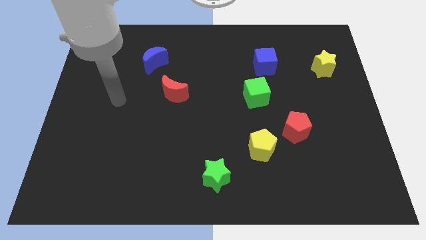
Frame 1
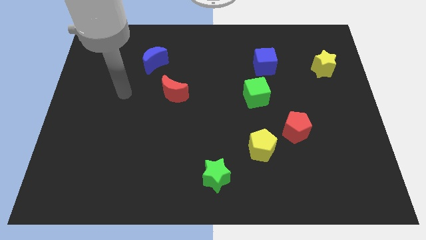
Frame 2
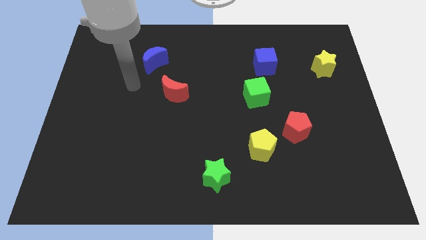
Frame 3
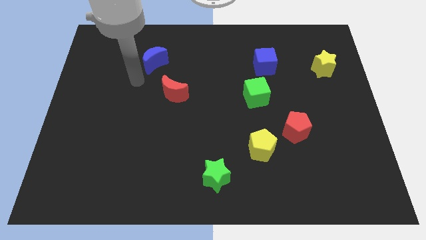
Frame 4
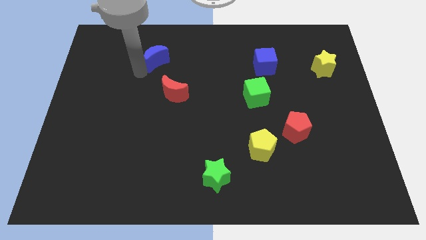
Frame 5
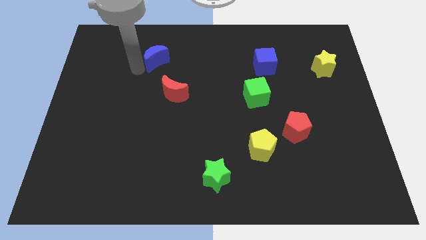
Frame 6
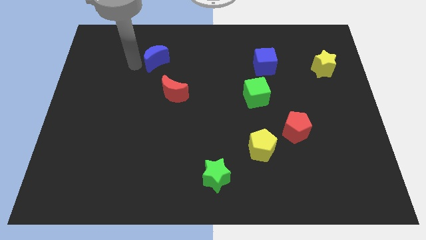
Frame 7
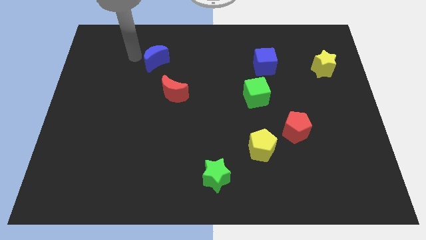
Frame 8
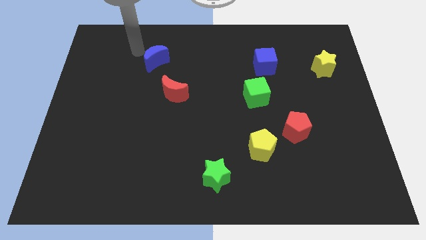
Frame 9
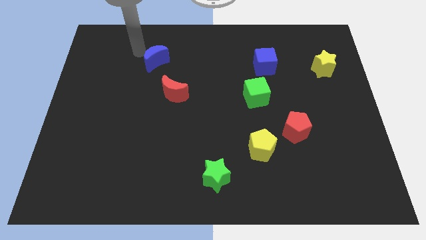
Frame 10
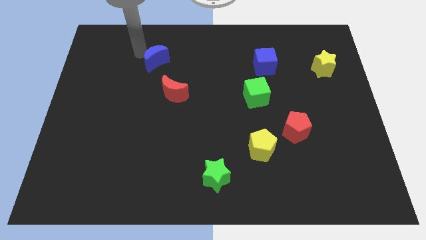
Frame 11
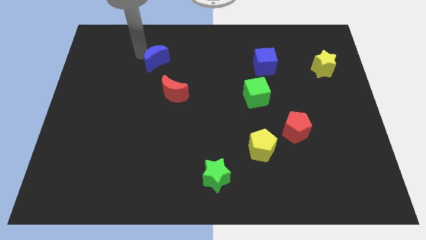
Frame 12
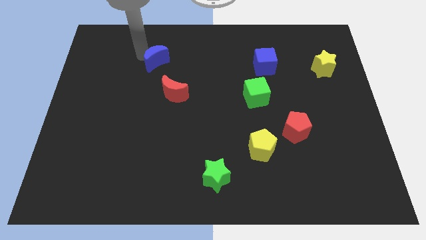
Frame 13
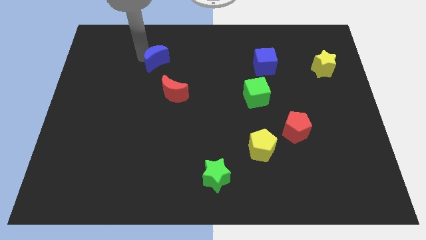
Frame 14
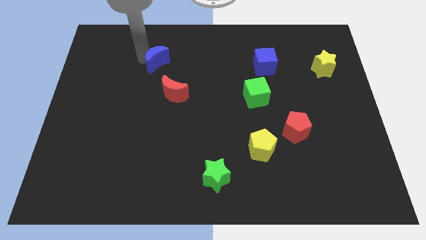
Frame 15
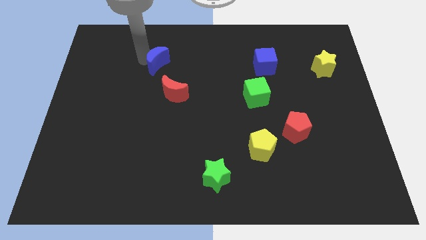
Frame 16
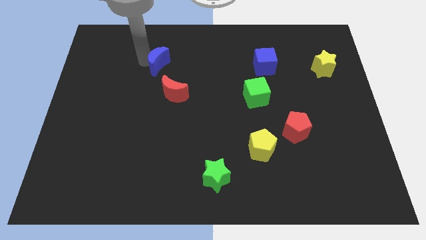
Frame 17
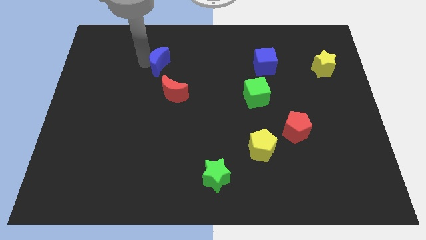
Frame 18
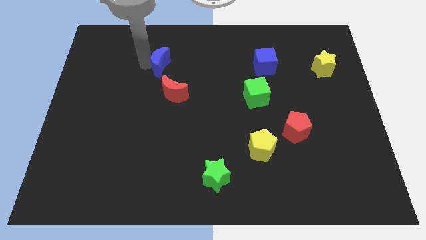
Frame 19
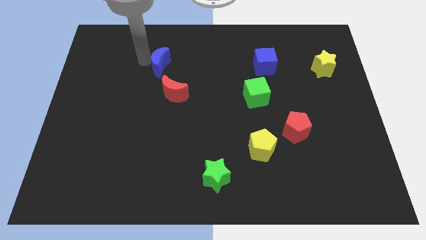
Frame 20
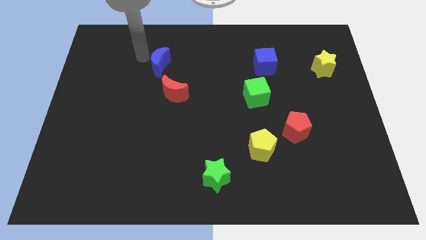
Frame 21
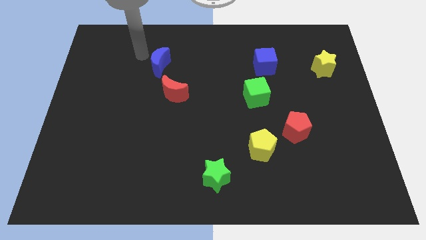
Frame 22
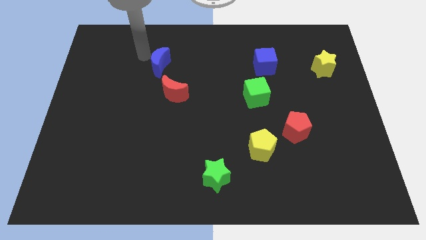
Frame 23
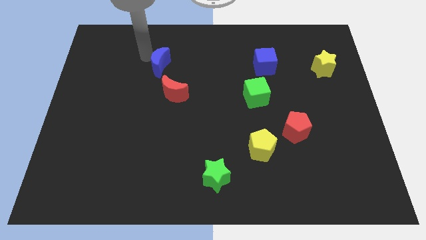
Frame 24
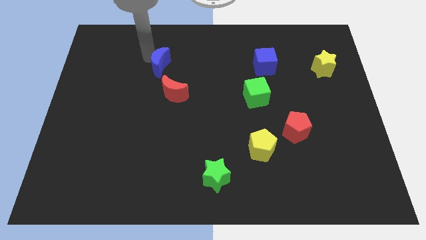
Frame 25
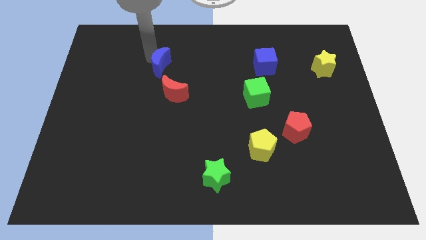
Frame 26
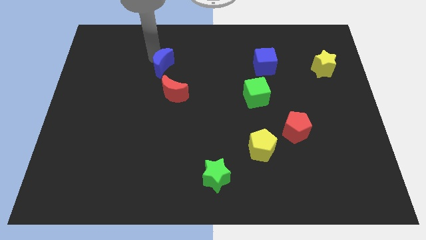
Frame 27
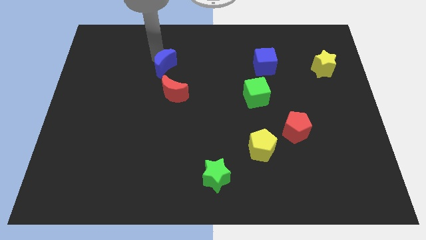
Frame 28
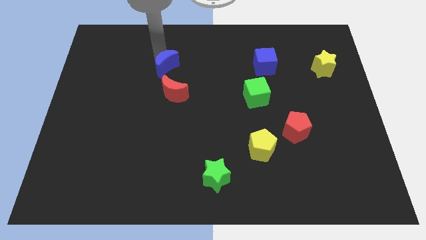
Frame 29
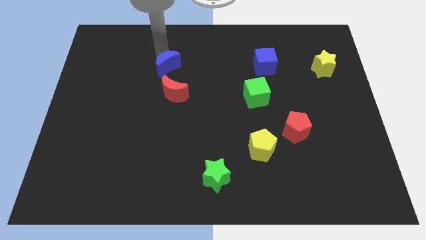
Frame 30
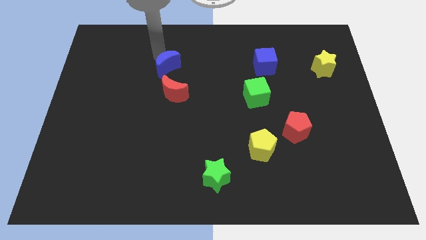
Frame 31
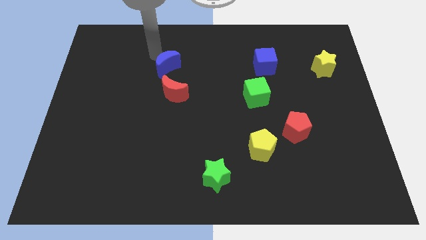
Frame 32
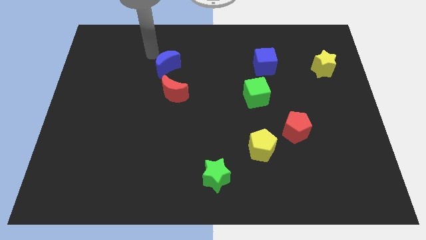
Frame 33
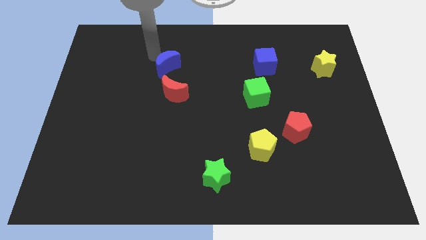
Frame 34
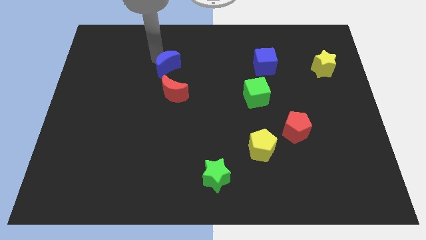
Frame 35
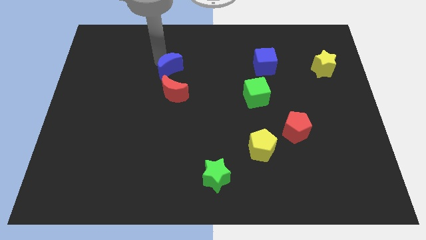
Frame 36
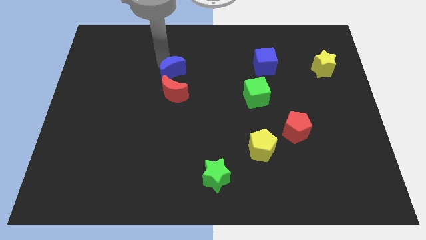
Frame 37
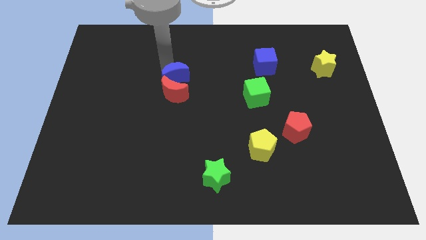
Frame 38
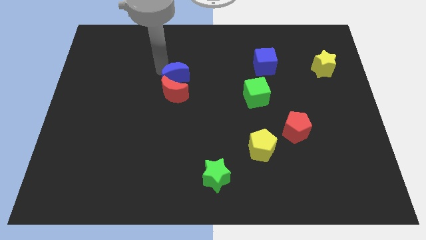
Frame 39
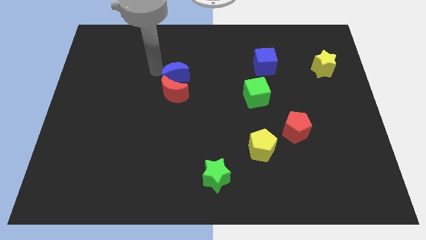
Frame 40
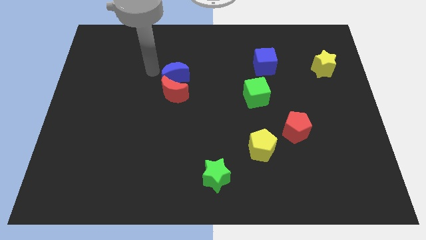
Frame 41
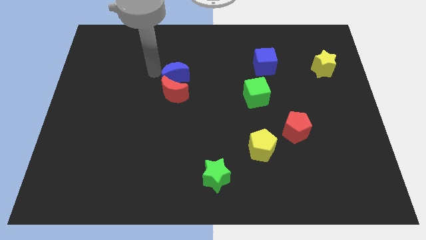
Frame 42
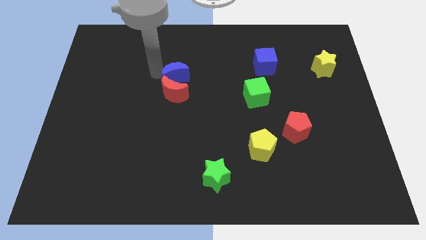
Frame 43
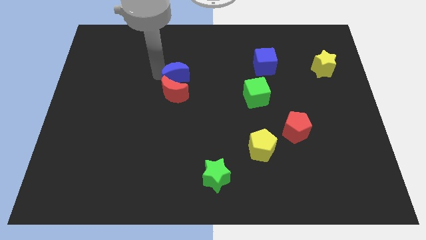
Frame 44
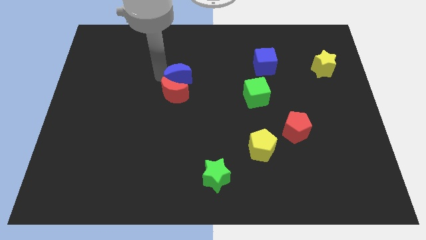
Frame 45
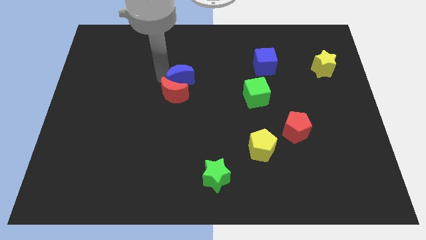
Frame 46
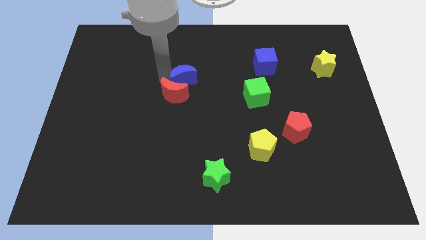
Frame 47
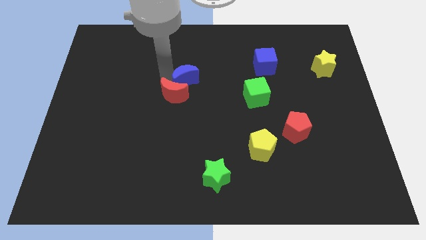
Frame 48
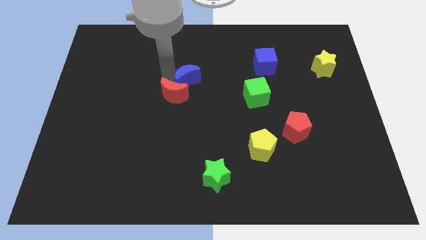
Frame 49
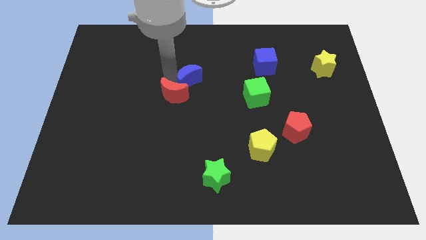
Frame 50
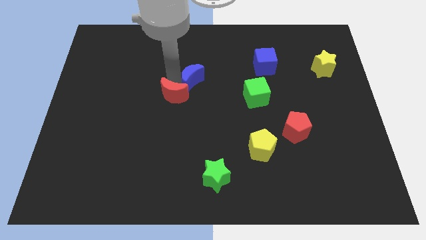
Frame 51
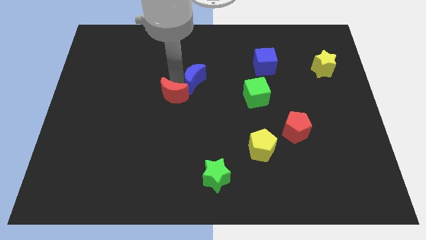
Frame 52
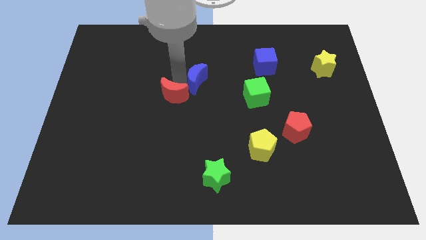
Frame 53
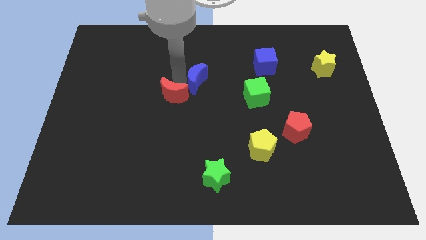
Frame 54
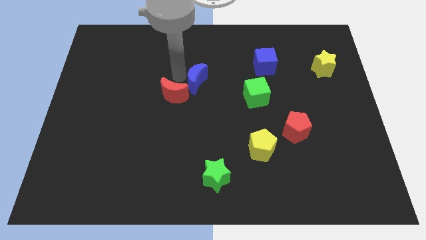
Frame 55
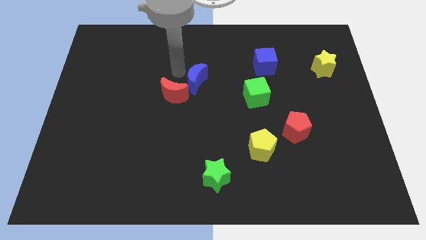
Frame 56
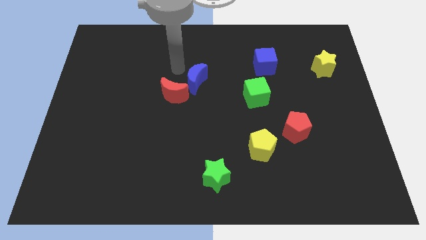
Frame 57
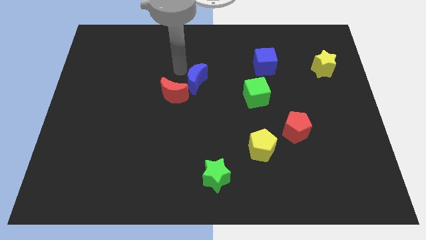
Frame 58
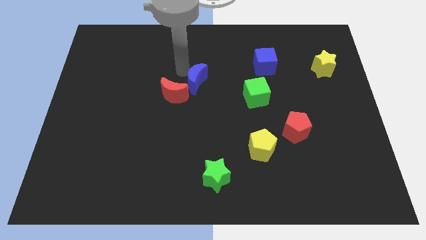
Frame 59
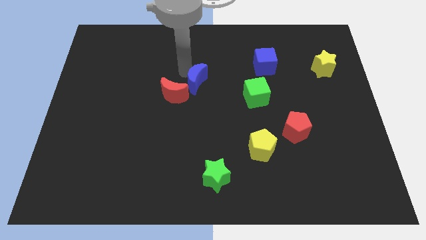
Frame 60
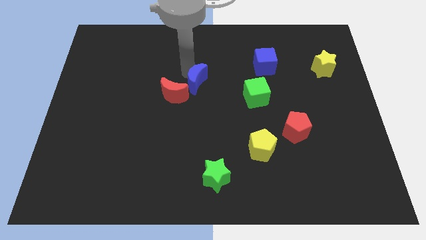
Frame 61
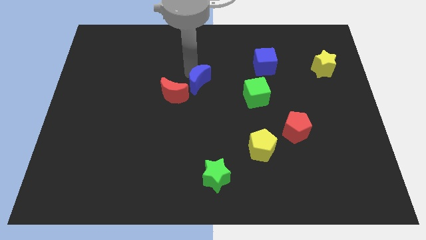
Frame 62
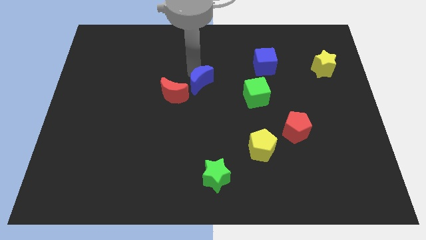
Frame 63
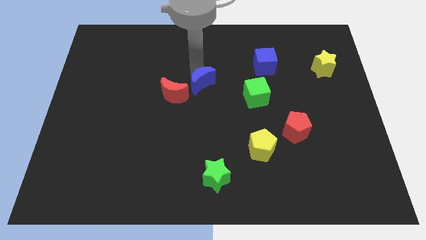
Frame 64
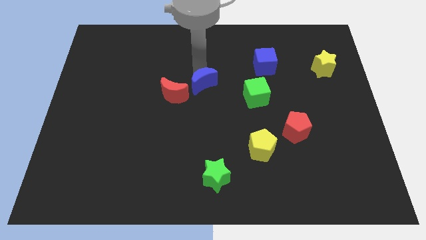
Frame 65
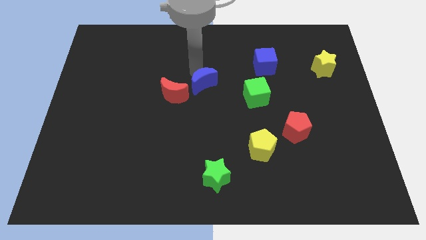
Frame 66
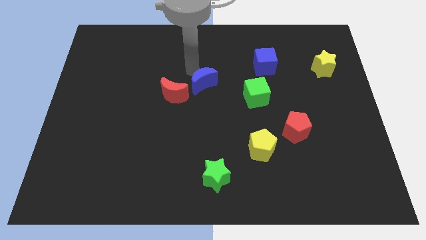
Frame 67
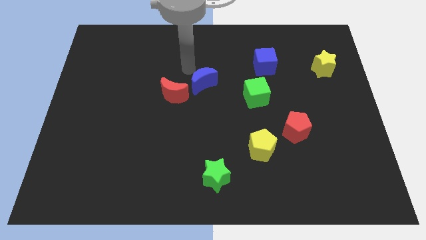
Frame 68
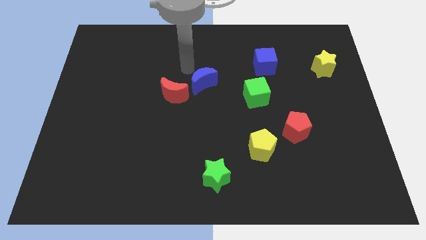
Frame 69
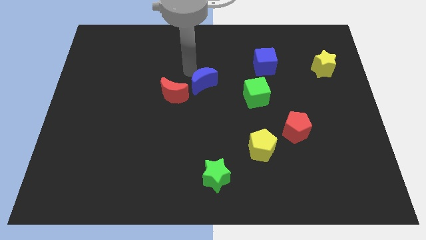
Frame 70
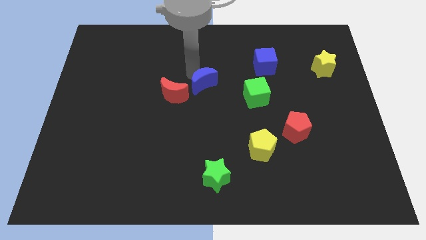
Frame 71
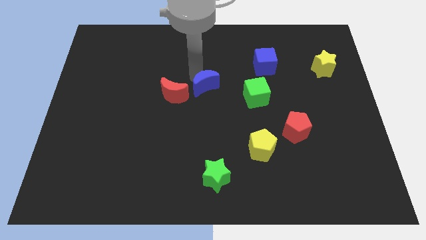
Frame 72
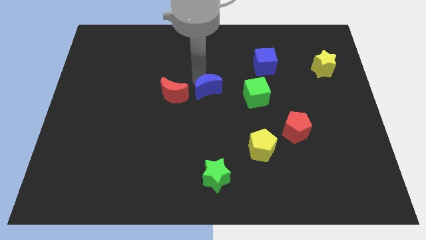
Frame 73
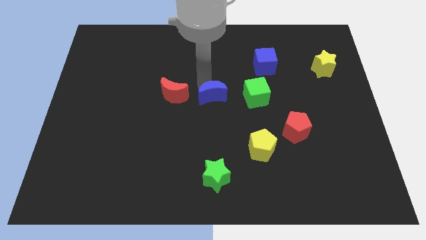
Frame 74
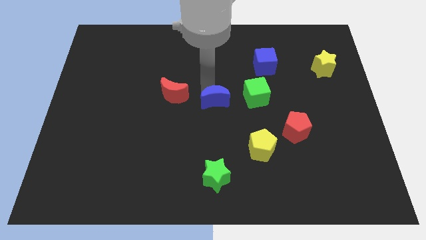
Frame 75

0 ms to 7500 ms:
push the blue moon diagonally down and right

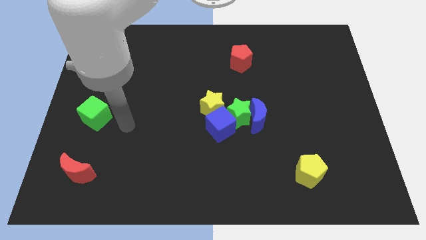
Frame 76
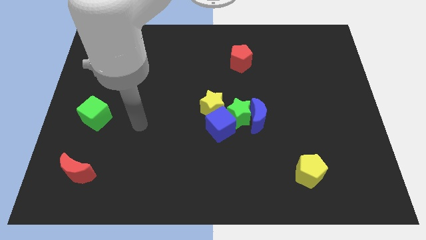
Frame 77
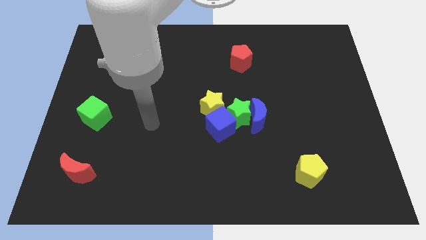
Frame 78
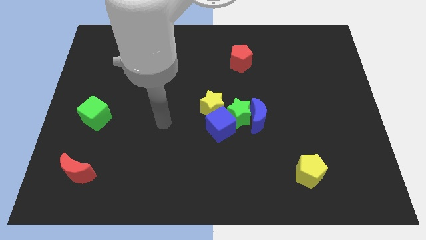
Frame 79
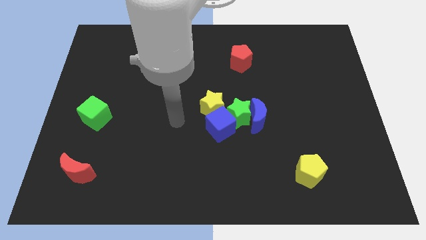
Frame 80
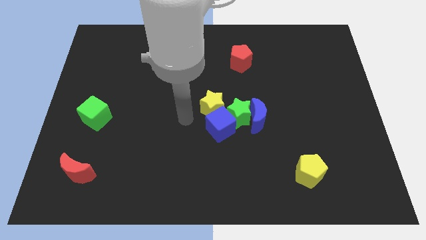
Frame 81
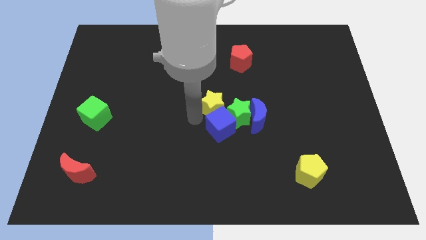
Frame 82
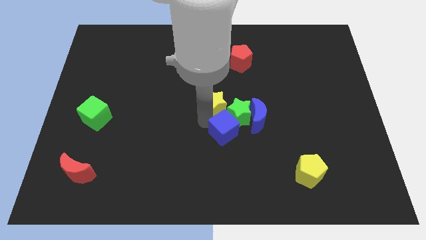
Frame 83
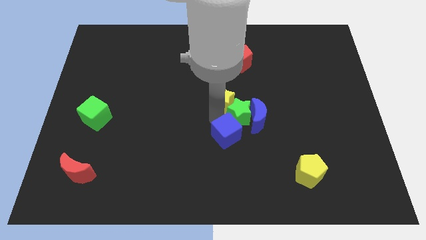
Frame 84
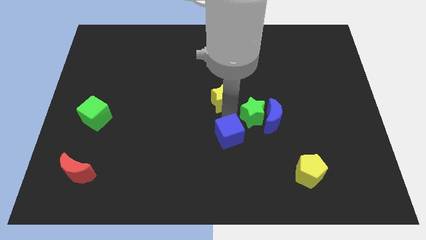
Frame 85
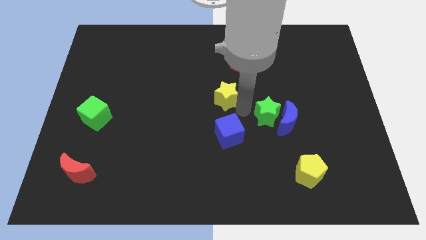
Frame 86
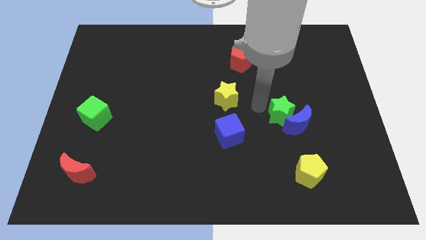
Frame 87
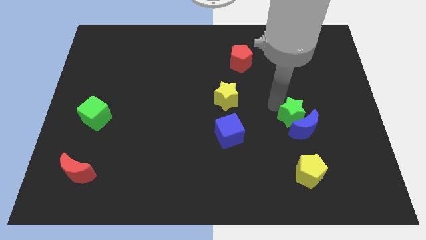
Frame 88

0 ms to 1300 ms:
slide the blue moon a little downwards and right
